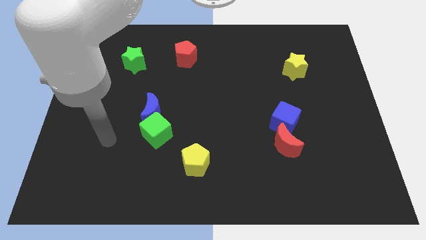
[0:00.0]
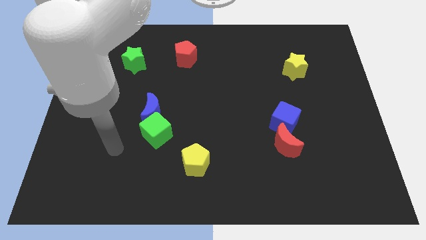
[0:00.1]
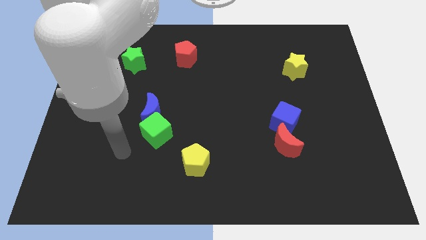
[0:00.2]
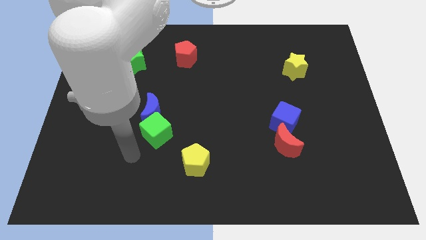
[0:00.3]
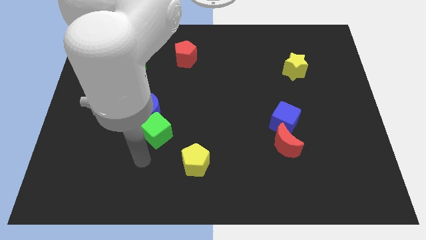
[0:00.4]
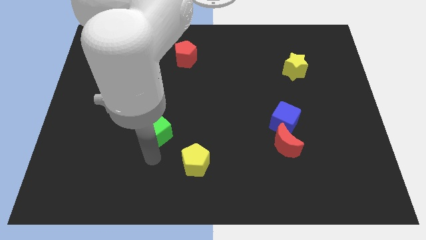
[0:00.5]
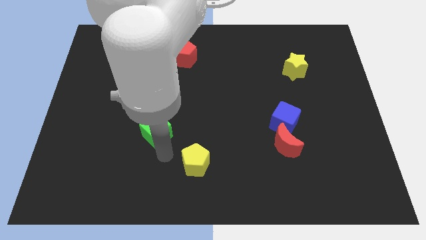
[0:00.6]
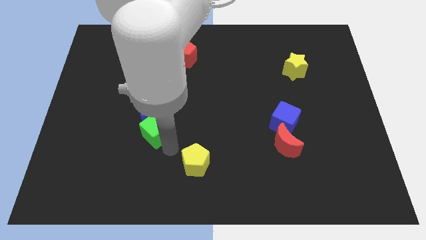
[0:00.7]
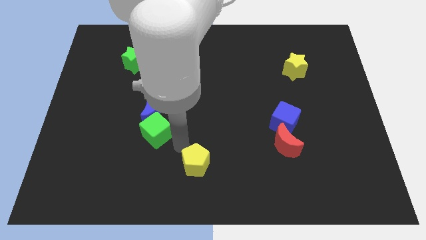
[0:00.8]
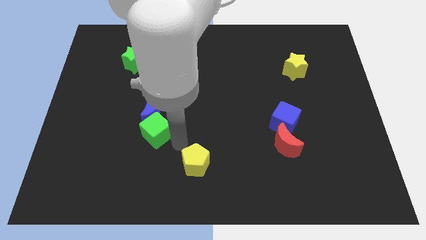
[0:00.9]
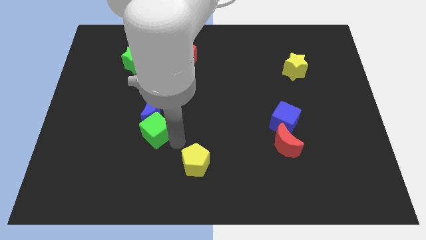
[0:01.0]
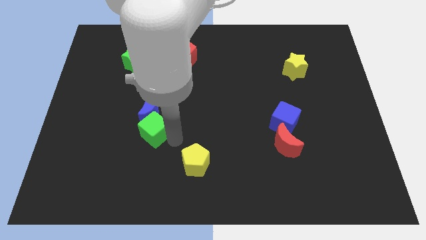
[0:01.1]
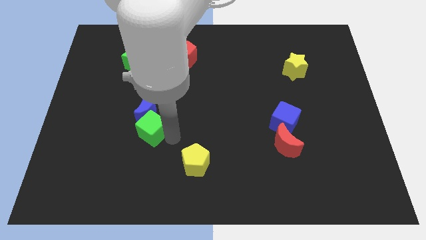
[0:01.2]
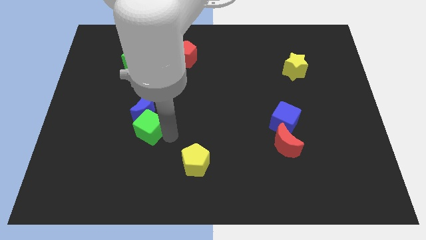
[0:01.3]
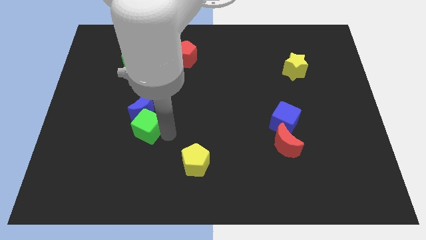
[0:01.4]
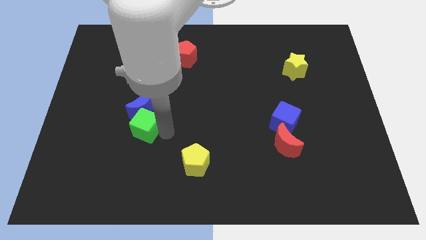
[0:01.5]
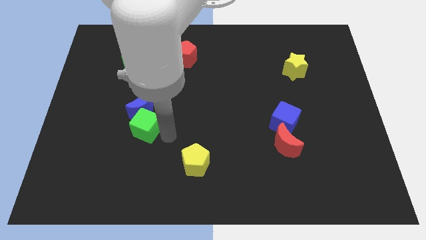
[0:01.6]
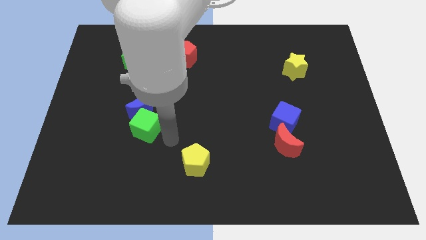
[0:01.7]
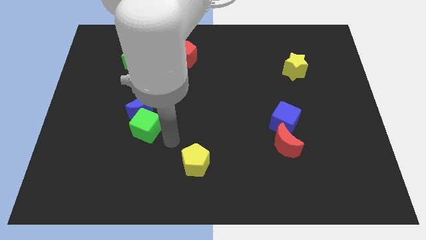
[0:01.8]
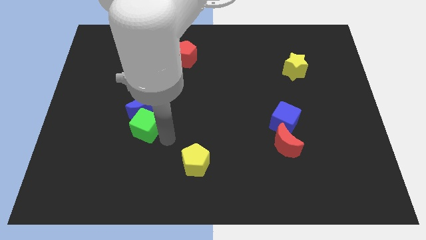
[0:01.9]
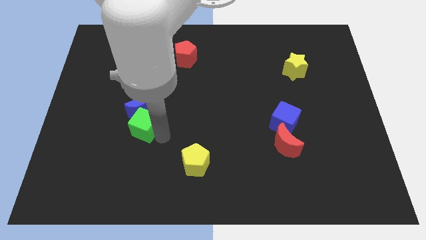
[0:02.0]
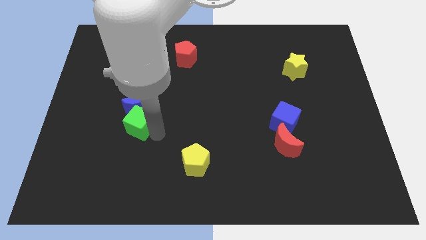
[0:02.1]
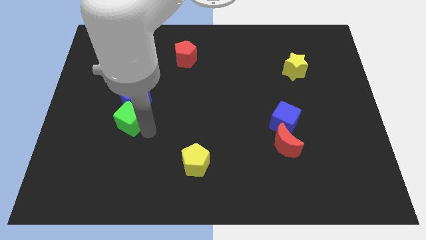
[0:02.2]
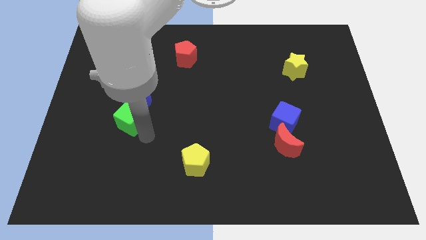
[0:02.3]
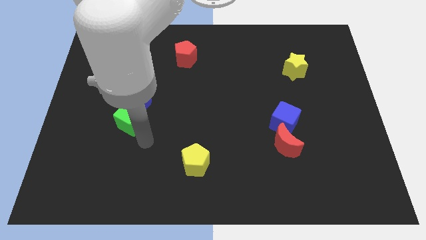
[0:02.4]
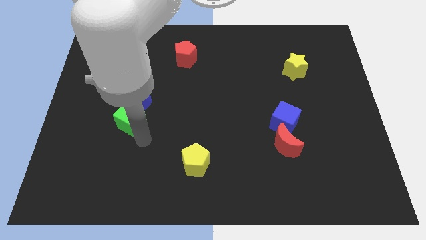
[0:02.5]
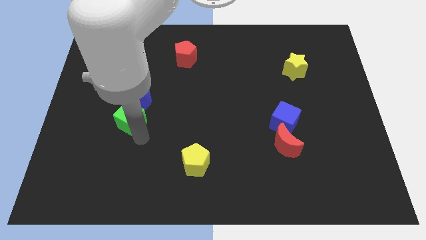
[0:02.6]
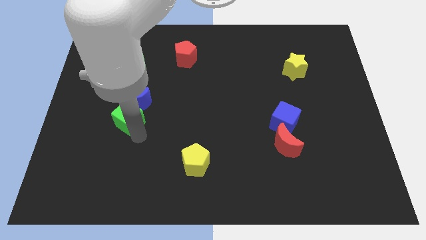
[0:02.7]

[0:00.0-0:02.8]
move the green cube upwards and left diagonally slightly

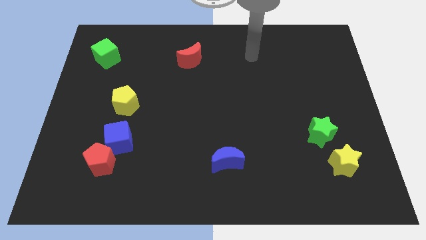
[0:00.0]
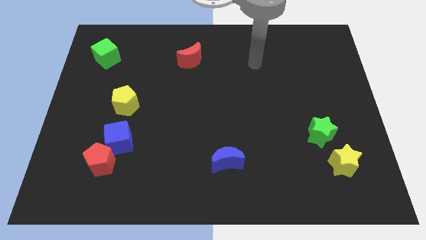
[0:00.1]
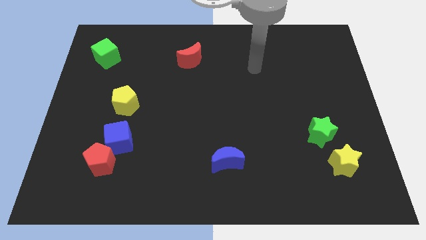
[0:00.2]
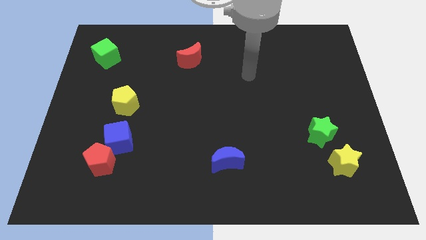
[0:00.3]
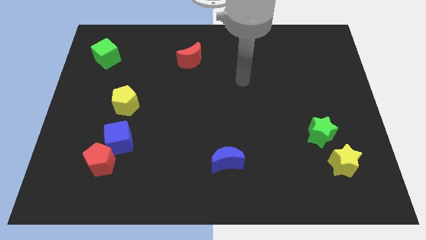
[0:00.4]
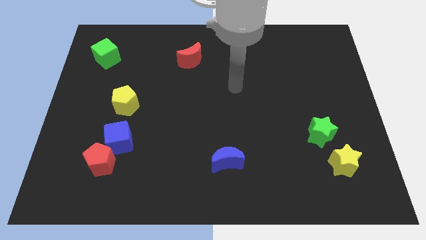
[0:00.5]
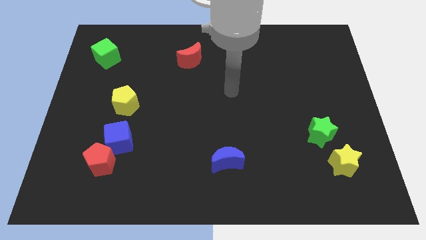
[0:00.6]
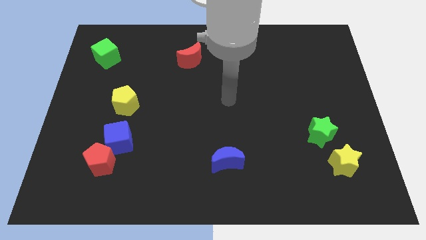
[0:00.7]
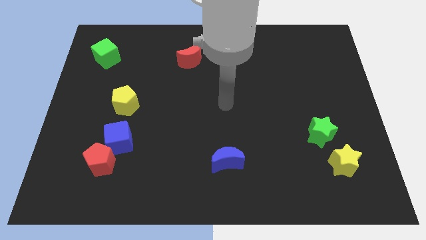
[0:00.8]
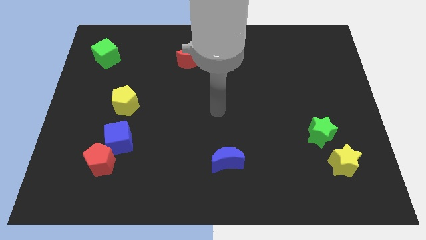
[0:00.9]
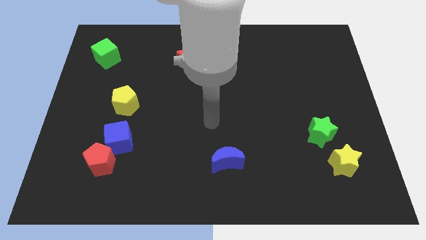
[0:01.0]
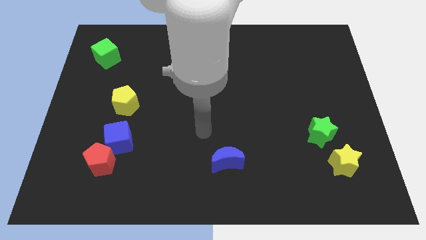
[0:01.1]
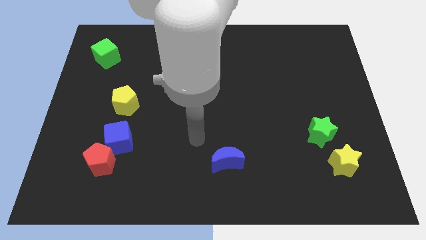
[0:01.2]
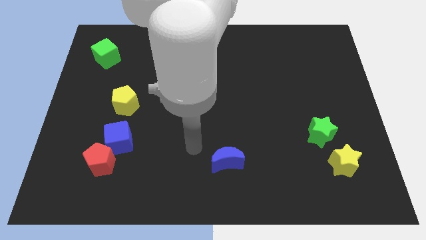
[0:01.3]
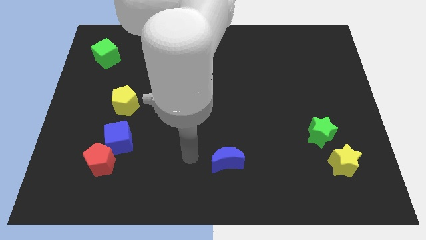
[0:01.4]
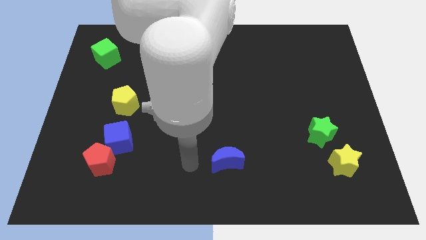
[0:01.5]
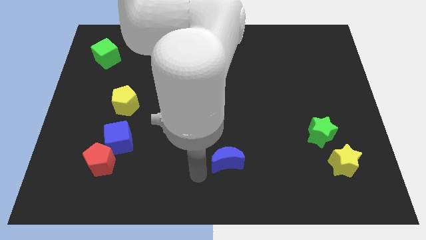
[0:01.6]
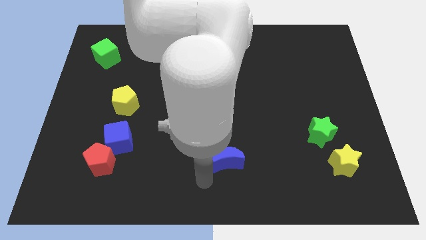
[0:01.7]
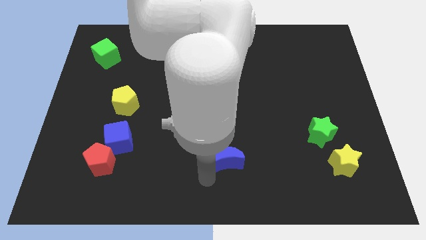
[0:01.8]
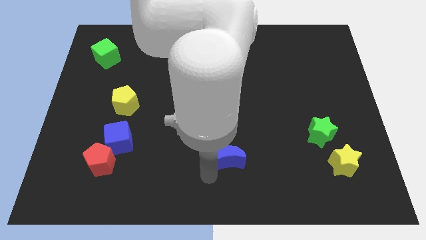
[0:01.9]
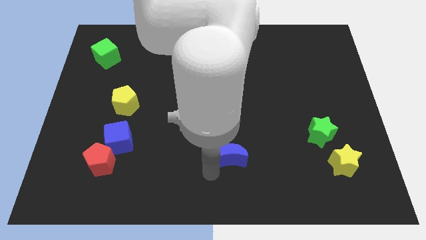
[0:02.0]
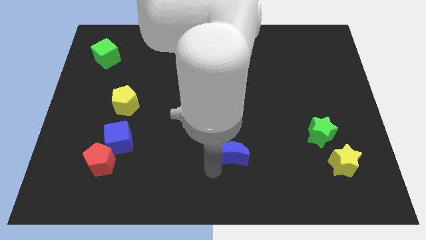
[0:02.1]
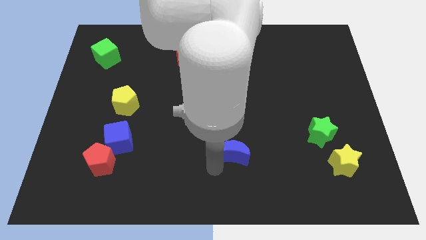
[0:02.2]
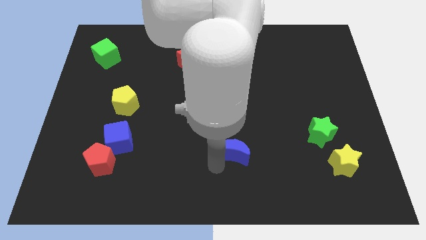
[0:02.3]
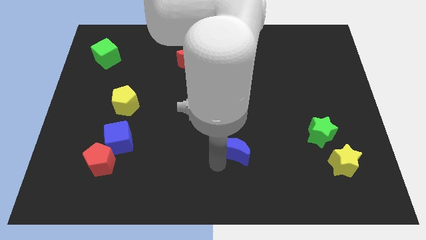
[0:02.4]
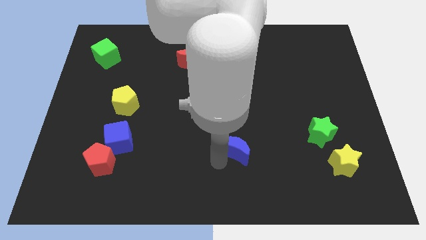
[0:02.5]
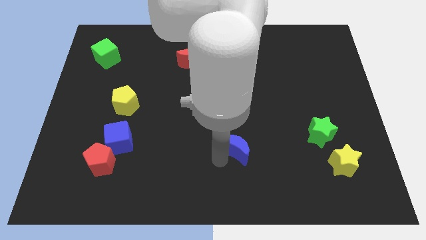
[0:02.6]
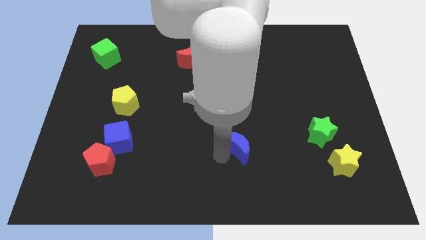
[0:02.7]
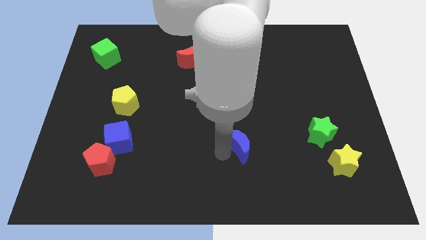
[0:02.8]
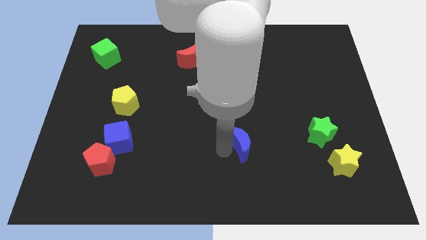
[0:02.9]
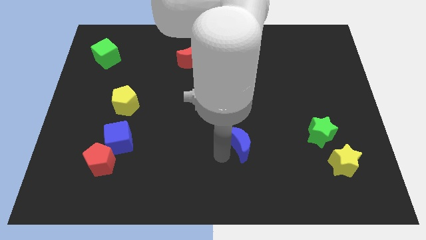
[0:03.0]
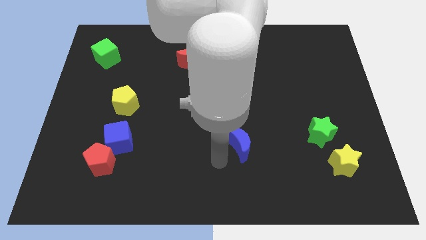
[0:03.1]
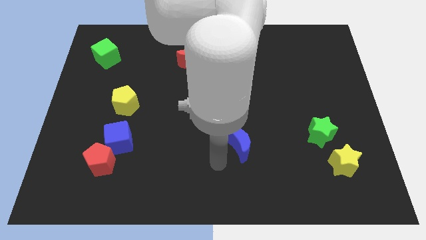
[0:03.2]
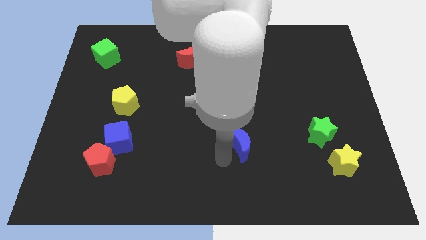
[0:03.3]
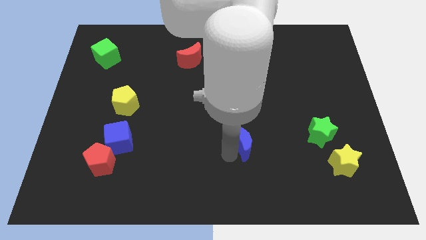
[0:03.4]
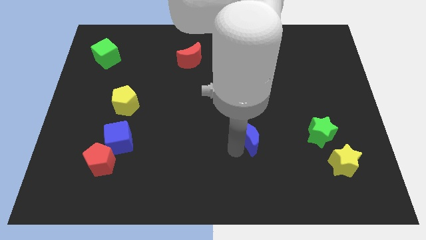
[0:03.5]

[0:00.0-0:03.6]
slide the blue moon somewhat up and to the right

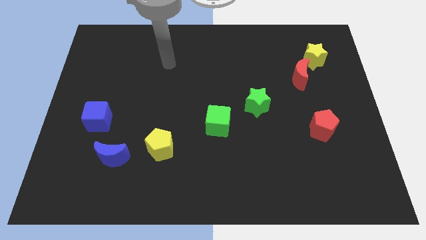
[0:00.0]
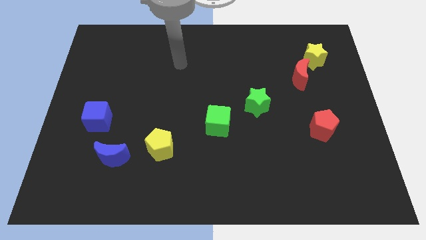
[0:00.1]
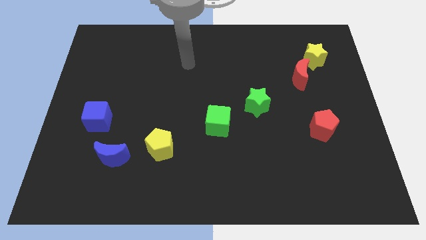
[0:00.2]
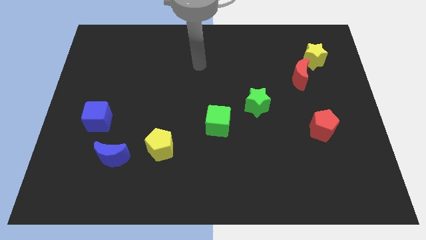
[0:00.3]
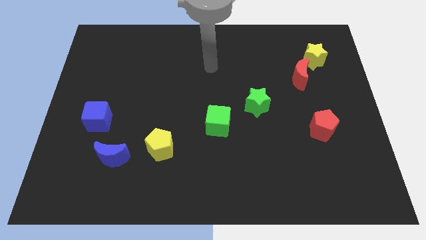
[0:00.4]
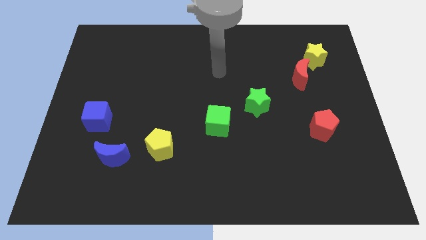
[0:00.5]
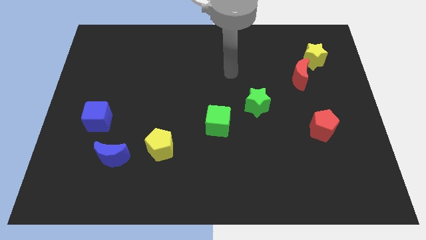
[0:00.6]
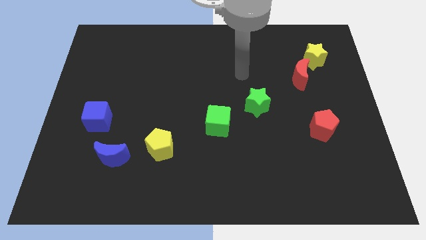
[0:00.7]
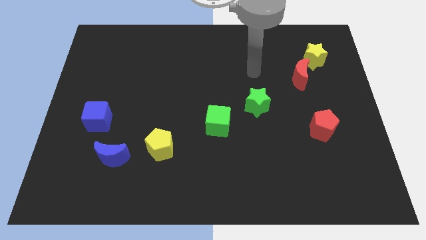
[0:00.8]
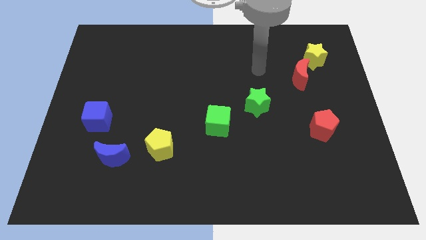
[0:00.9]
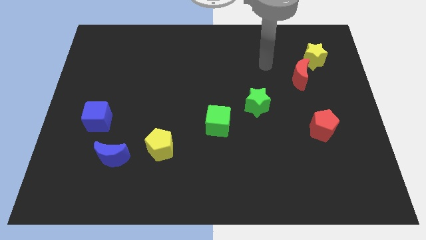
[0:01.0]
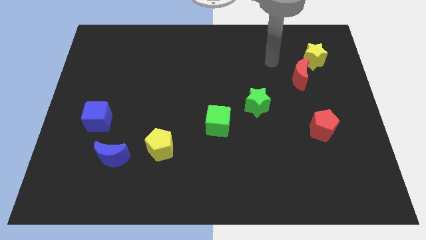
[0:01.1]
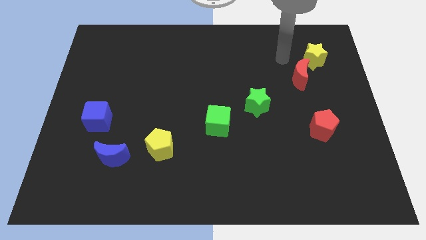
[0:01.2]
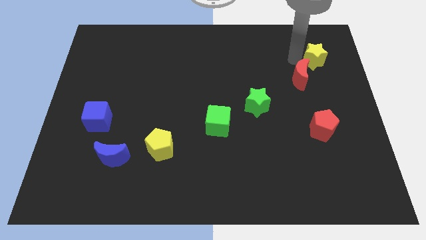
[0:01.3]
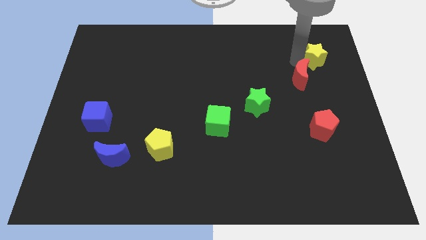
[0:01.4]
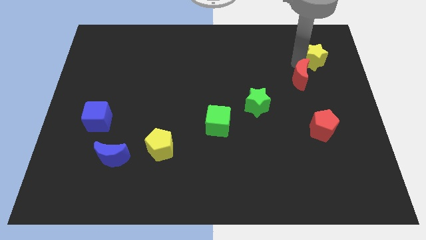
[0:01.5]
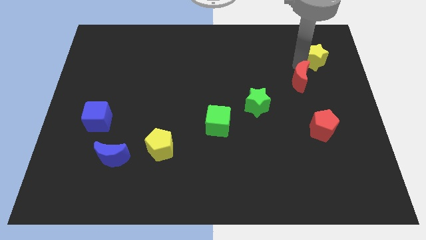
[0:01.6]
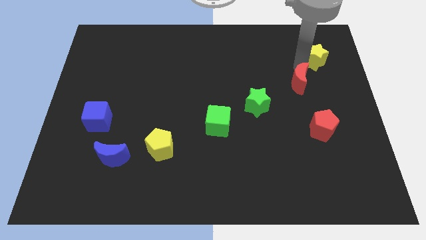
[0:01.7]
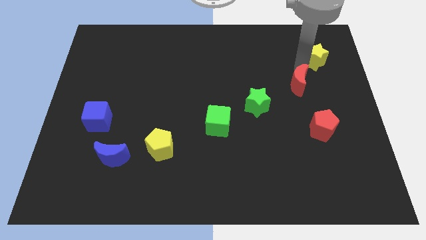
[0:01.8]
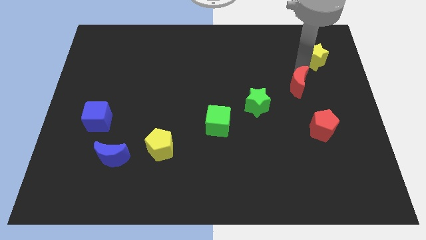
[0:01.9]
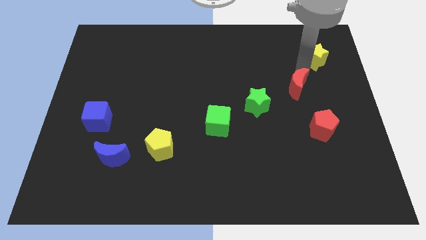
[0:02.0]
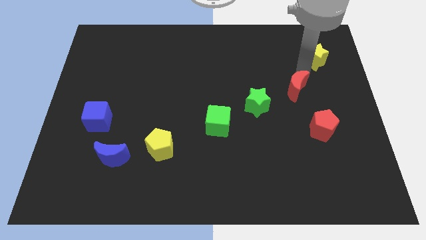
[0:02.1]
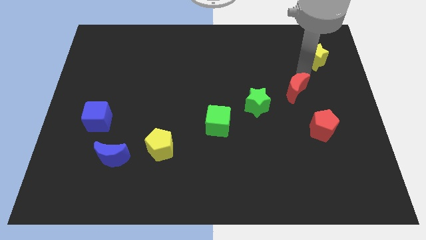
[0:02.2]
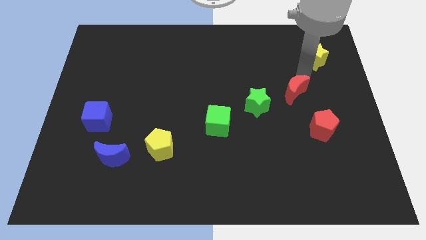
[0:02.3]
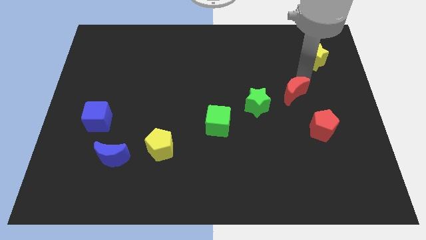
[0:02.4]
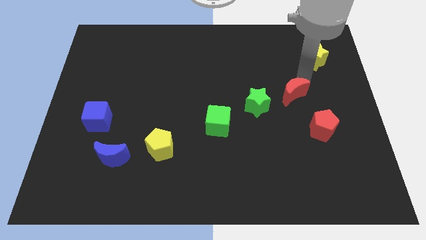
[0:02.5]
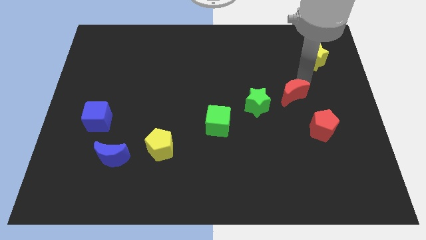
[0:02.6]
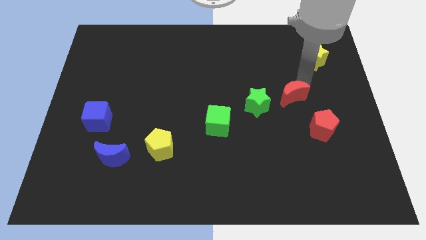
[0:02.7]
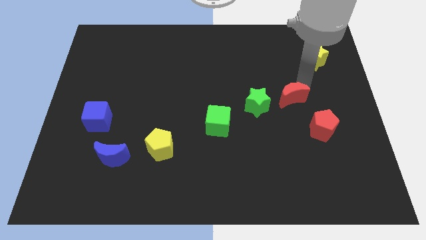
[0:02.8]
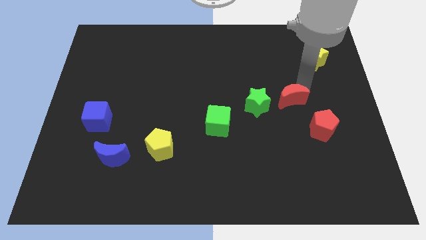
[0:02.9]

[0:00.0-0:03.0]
slightly slide the red moon downwards
